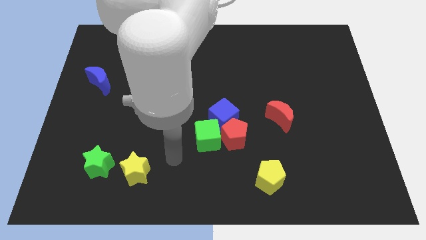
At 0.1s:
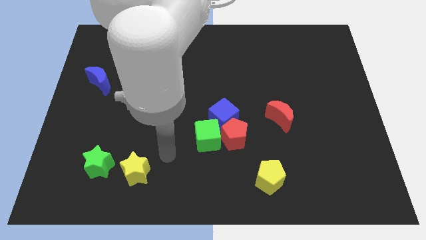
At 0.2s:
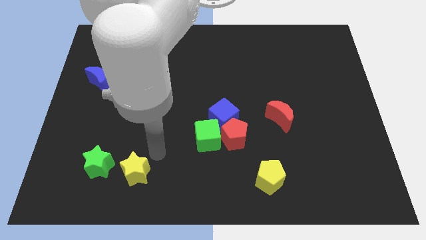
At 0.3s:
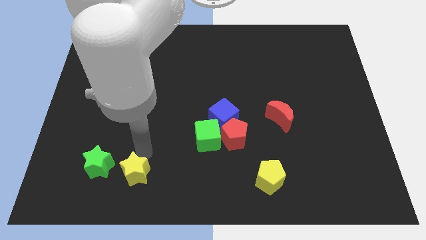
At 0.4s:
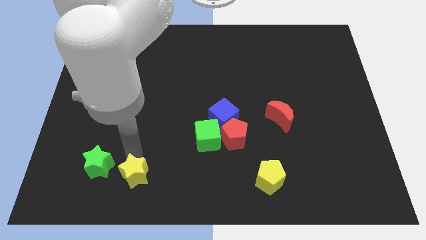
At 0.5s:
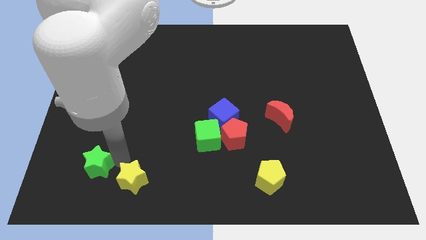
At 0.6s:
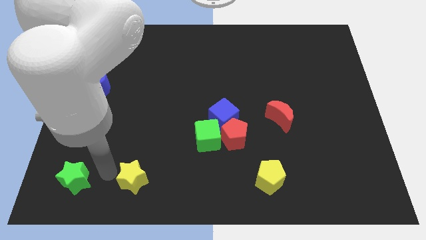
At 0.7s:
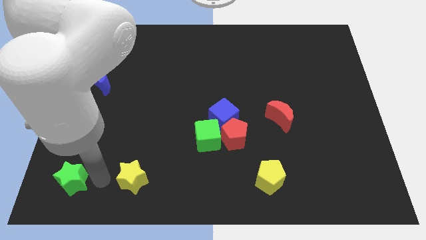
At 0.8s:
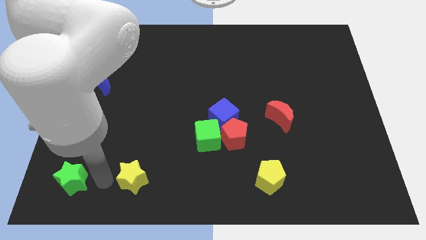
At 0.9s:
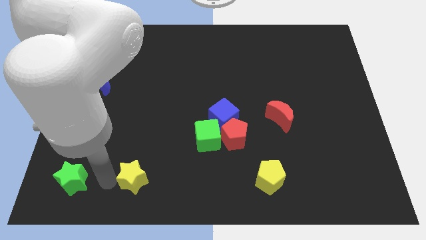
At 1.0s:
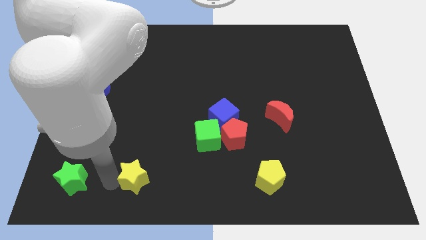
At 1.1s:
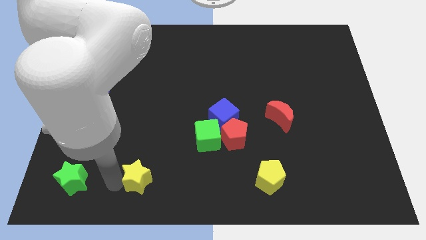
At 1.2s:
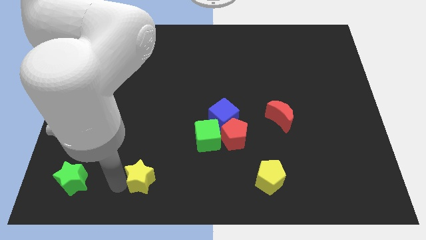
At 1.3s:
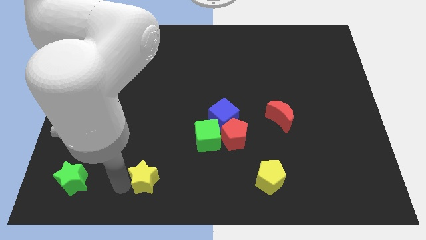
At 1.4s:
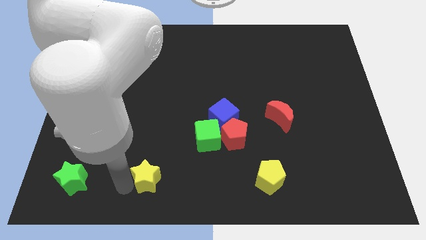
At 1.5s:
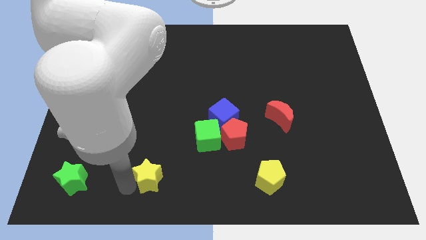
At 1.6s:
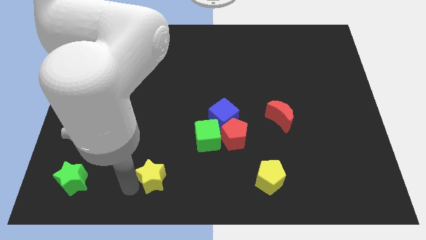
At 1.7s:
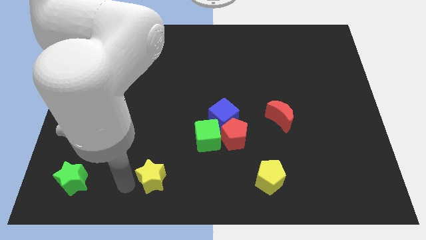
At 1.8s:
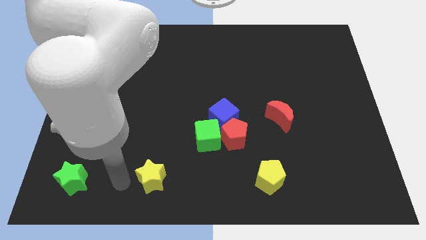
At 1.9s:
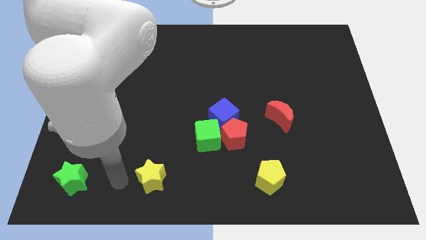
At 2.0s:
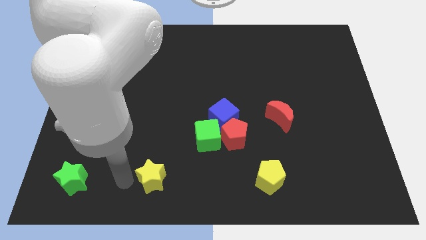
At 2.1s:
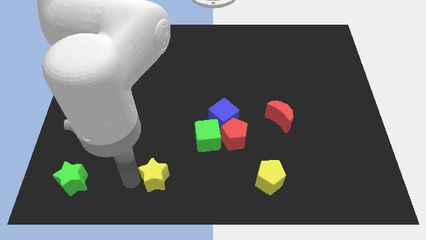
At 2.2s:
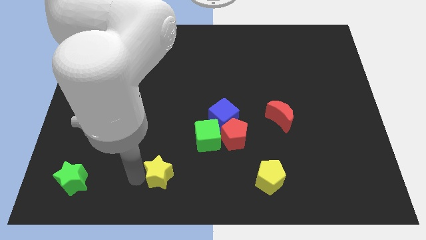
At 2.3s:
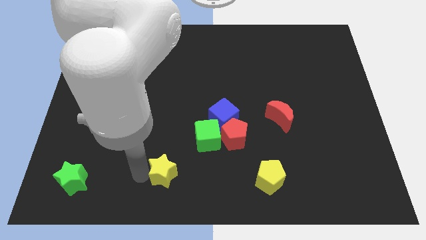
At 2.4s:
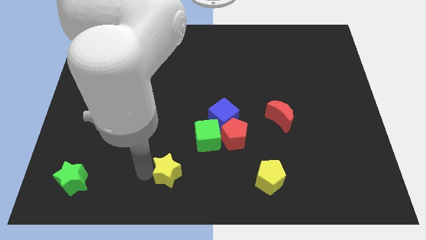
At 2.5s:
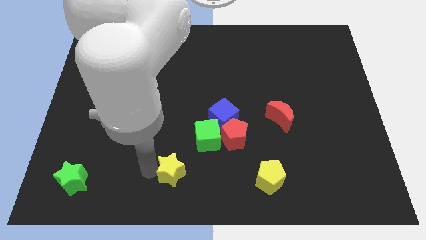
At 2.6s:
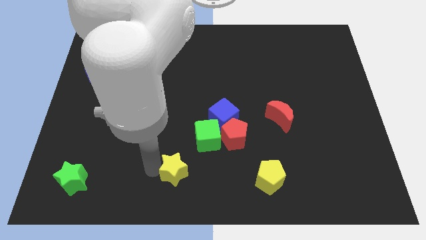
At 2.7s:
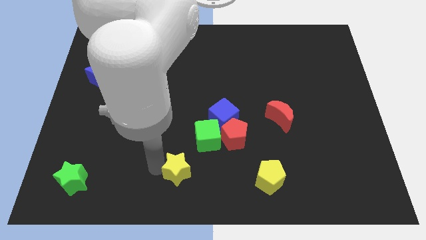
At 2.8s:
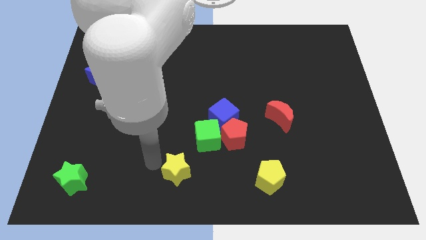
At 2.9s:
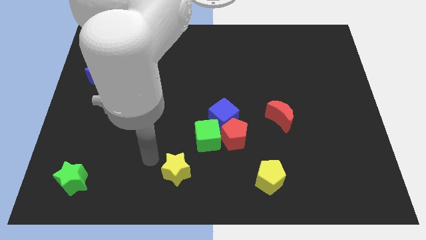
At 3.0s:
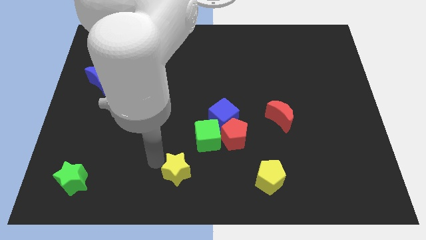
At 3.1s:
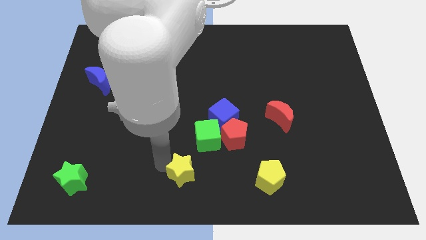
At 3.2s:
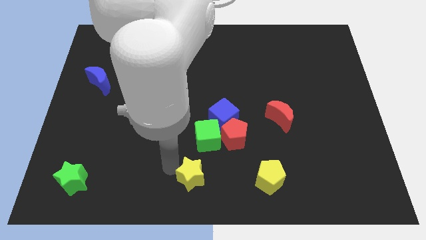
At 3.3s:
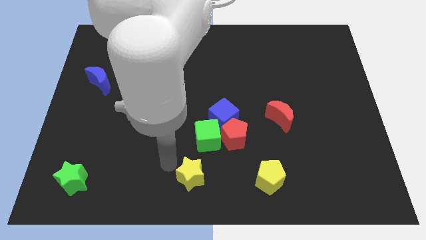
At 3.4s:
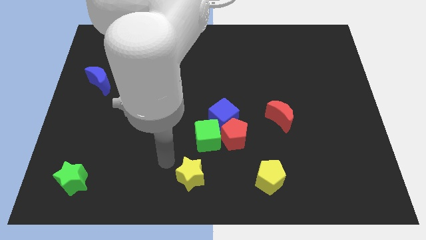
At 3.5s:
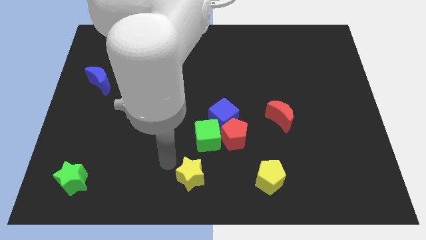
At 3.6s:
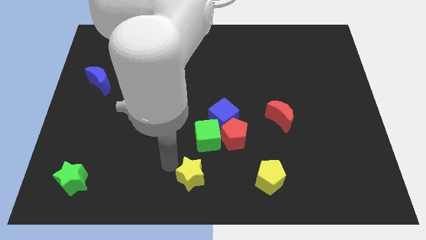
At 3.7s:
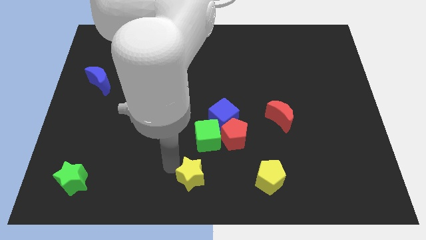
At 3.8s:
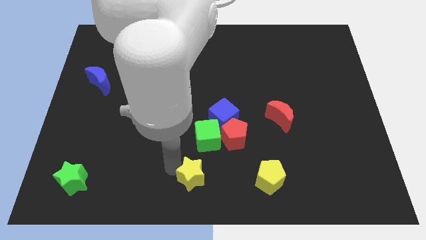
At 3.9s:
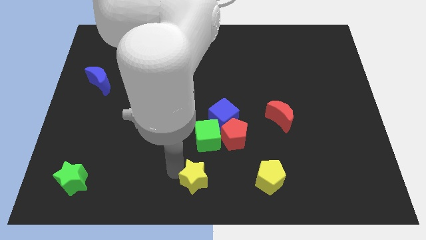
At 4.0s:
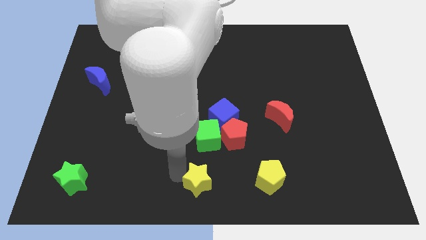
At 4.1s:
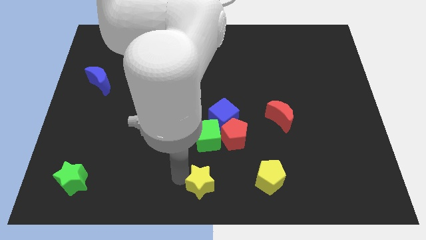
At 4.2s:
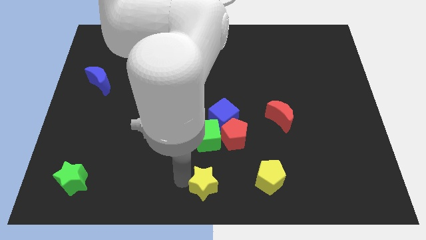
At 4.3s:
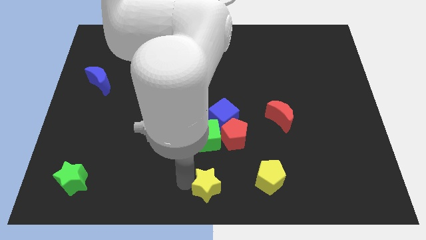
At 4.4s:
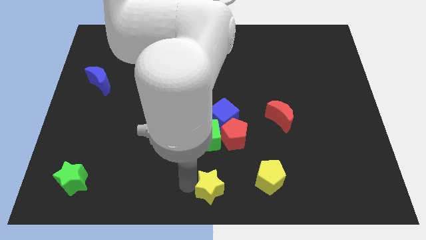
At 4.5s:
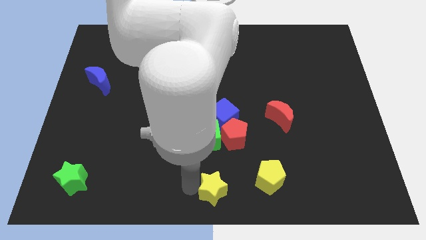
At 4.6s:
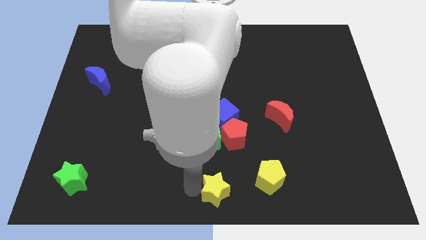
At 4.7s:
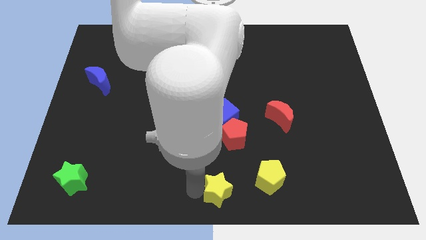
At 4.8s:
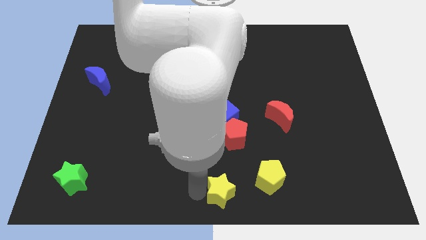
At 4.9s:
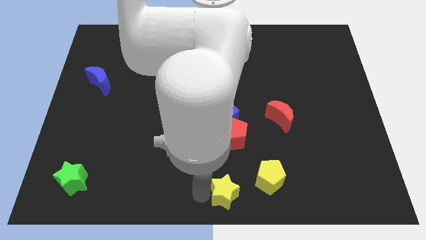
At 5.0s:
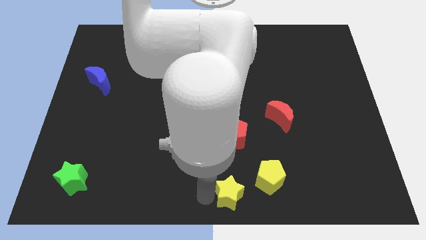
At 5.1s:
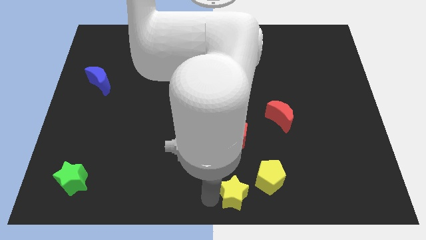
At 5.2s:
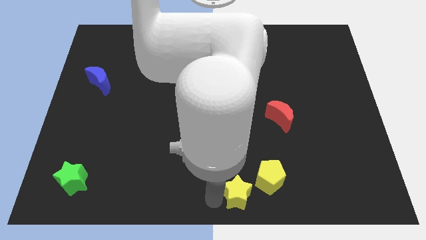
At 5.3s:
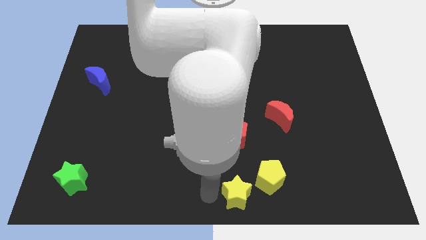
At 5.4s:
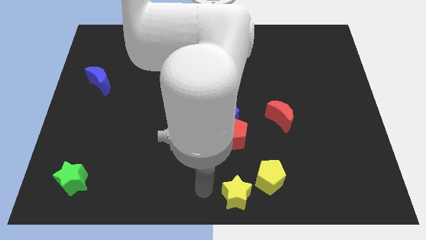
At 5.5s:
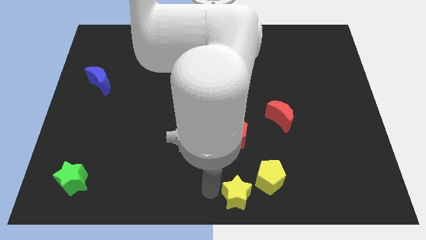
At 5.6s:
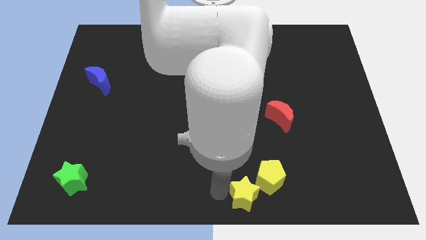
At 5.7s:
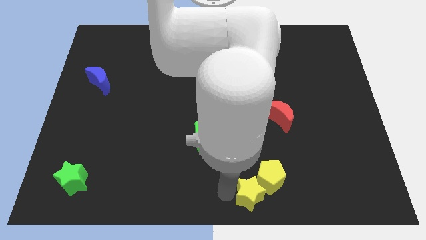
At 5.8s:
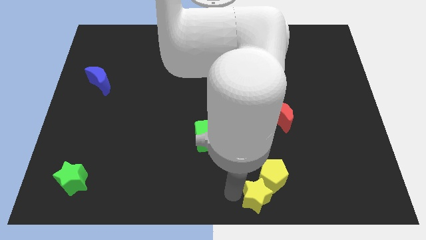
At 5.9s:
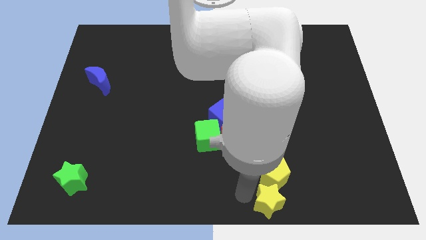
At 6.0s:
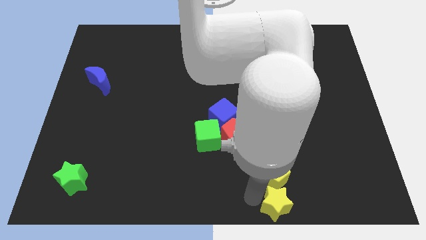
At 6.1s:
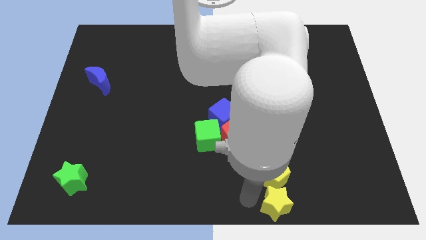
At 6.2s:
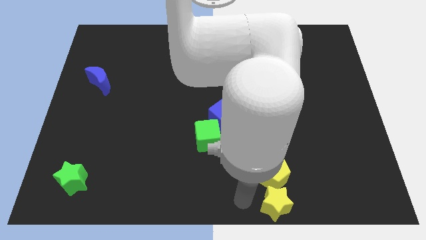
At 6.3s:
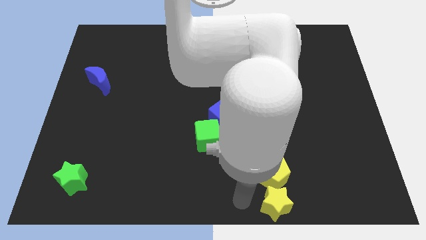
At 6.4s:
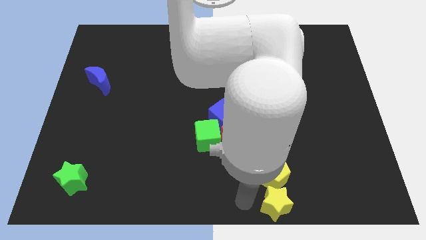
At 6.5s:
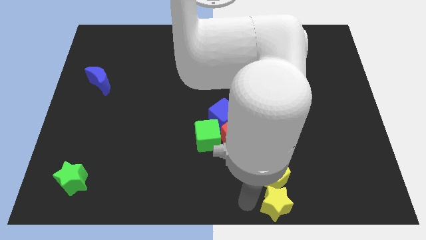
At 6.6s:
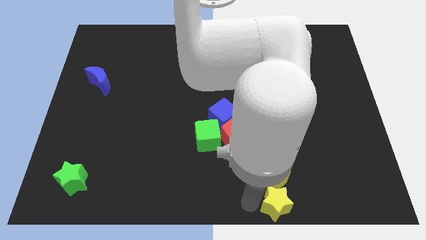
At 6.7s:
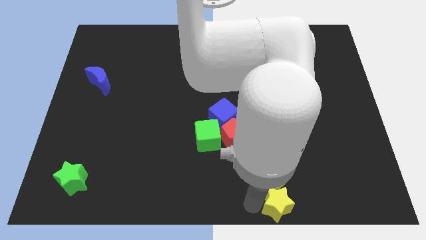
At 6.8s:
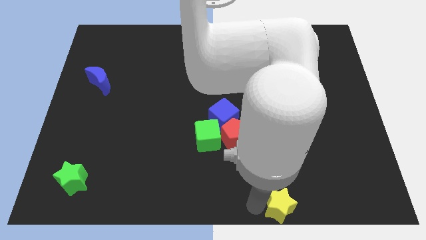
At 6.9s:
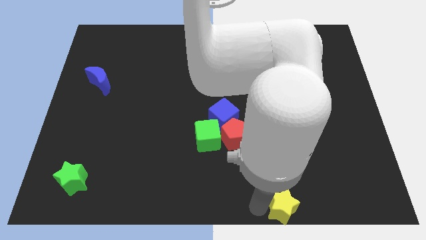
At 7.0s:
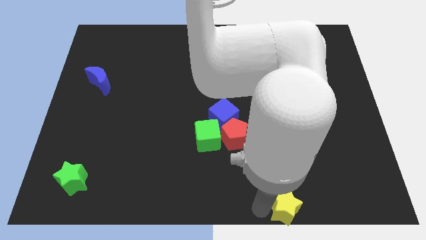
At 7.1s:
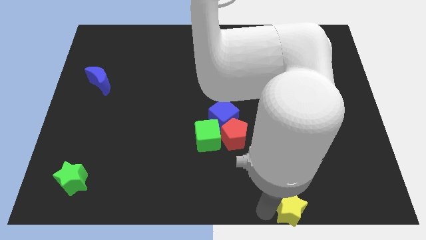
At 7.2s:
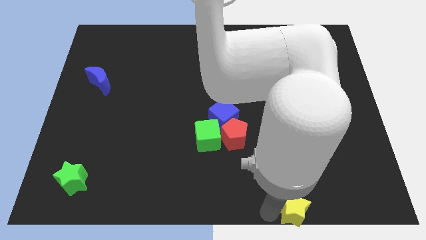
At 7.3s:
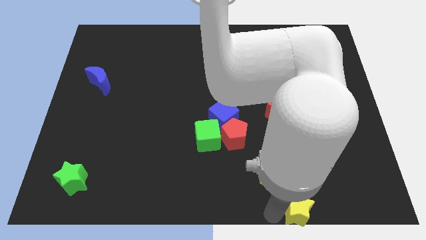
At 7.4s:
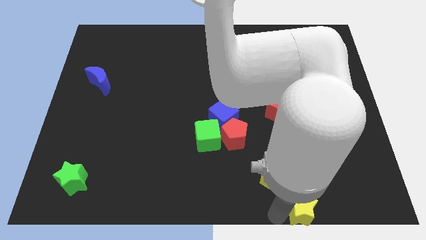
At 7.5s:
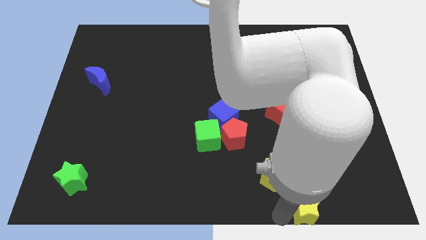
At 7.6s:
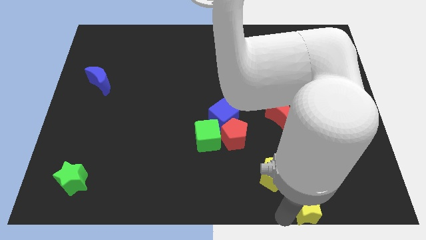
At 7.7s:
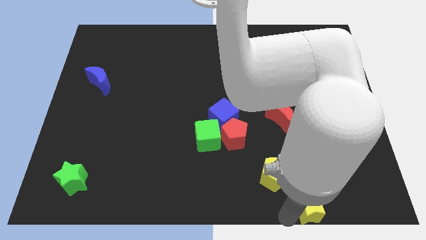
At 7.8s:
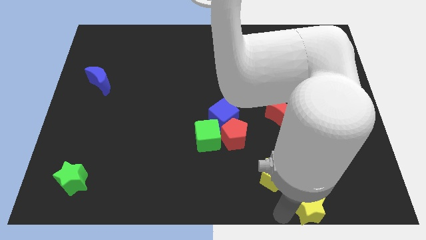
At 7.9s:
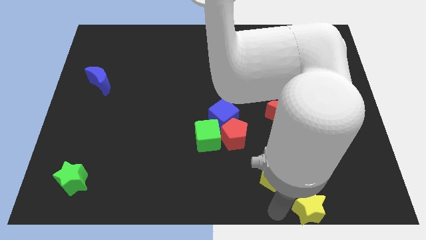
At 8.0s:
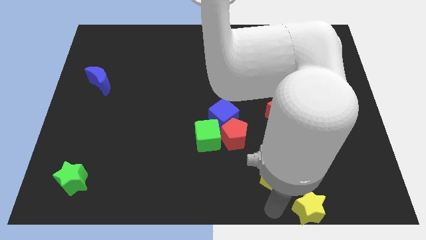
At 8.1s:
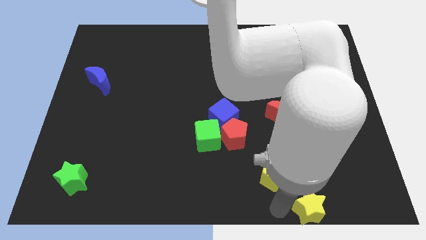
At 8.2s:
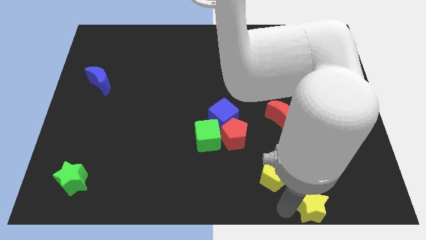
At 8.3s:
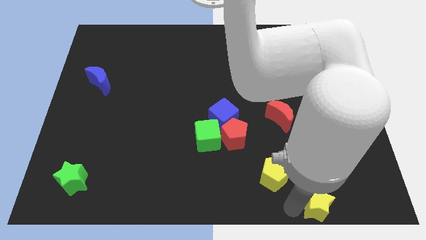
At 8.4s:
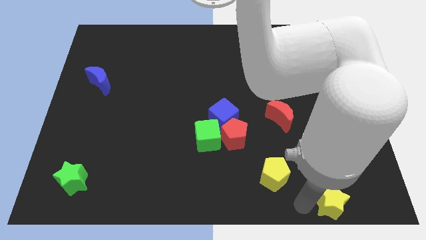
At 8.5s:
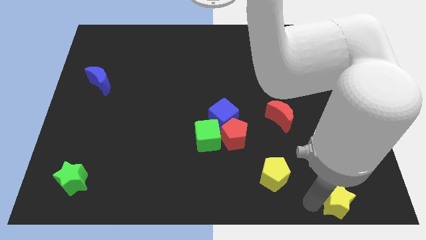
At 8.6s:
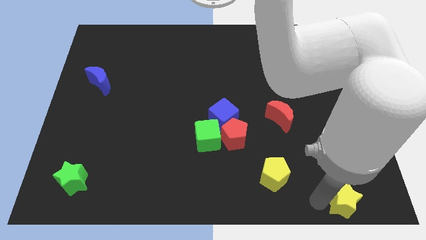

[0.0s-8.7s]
move the yellow star to the lower right corner

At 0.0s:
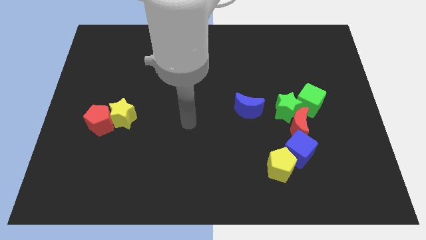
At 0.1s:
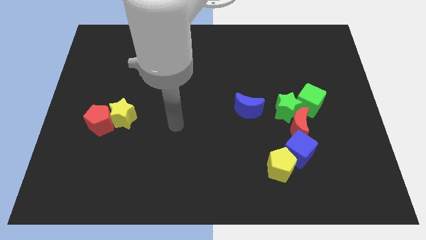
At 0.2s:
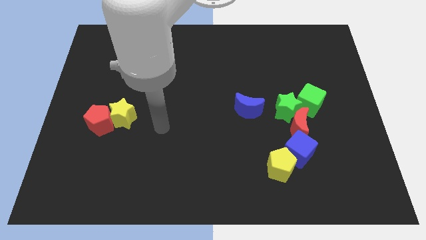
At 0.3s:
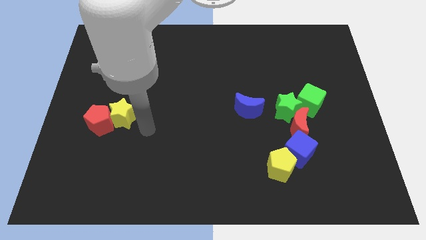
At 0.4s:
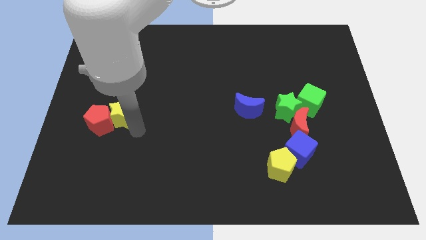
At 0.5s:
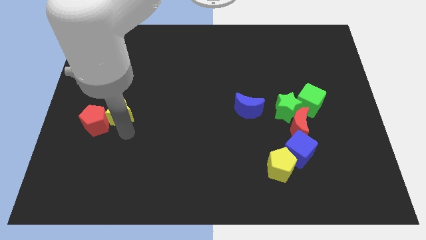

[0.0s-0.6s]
put the red pentagon to the left side
